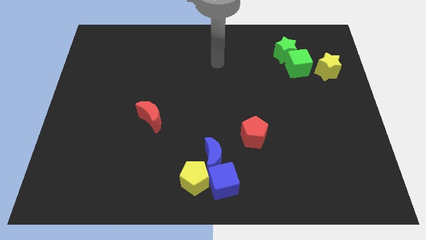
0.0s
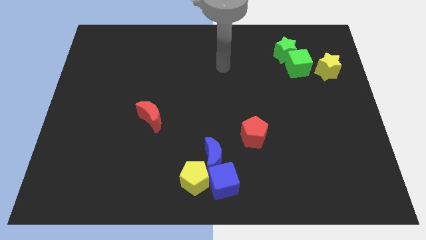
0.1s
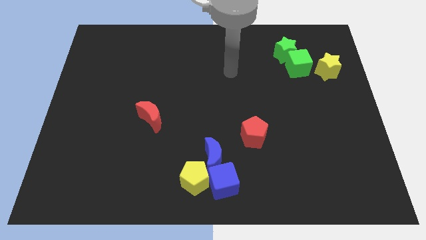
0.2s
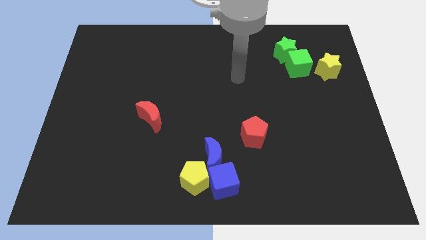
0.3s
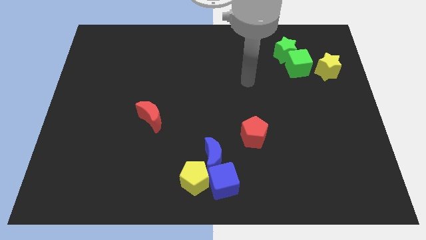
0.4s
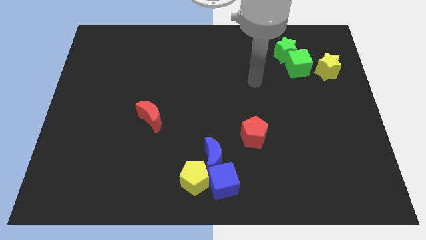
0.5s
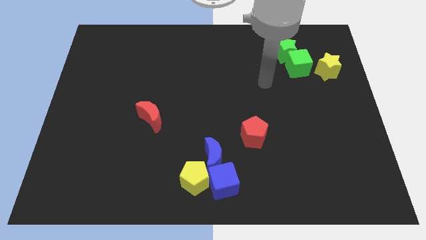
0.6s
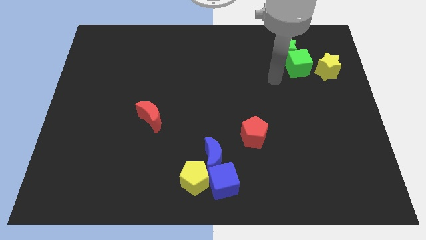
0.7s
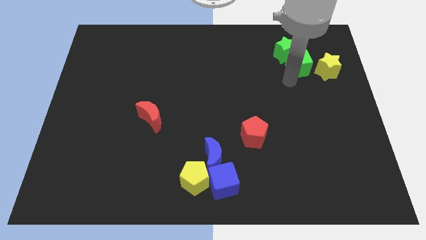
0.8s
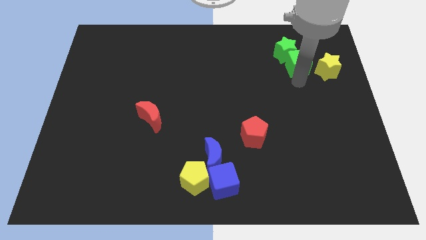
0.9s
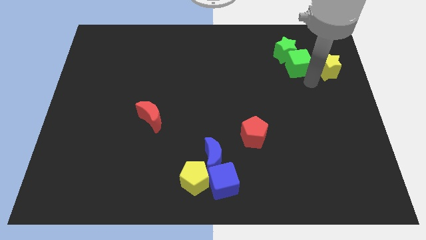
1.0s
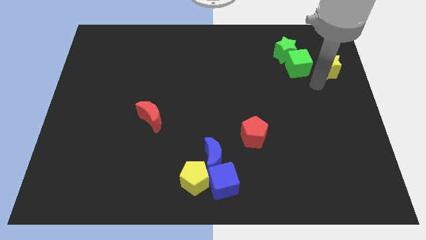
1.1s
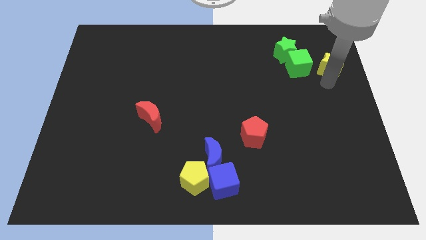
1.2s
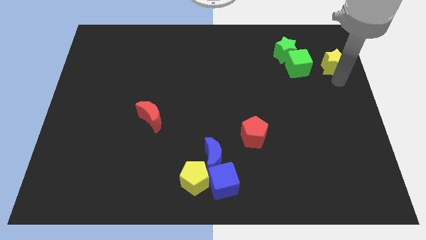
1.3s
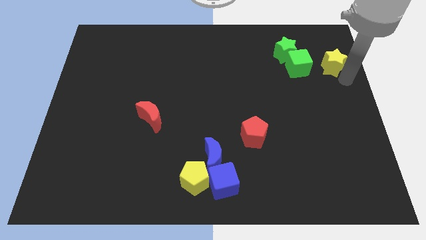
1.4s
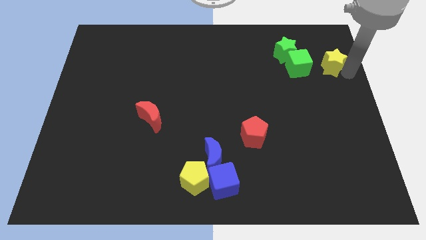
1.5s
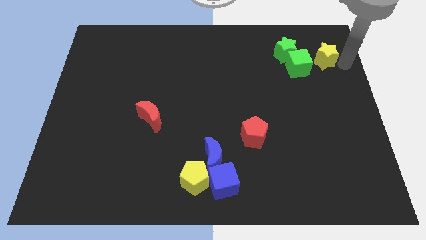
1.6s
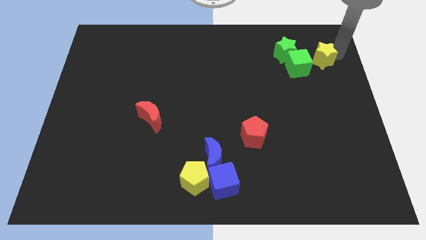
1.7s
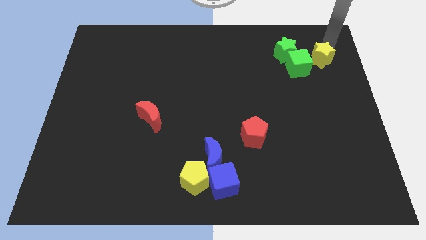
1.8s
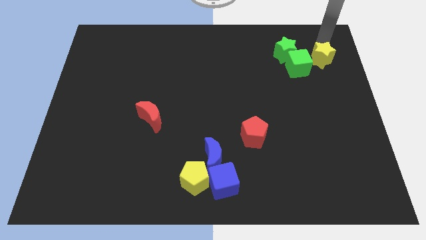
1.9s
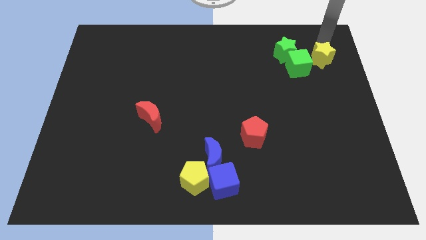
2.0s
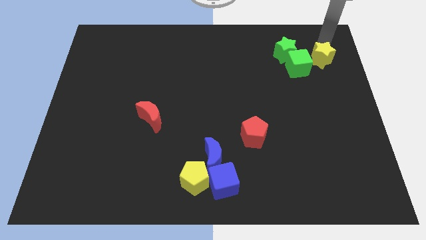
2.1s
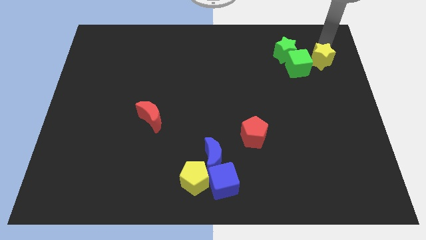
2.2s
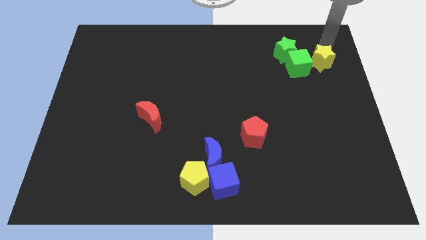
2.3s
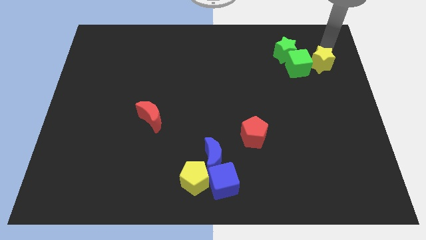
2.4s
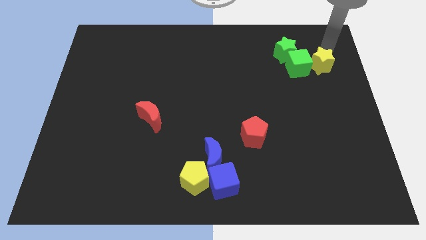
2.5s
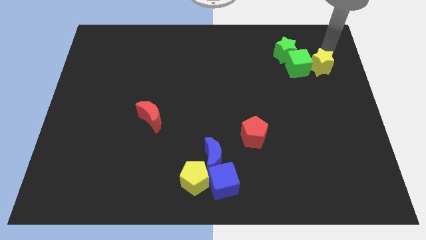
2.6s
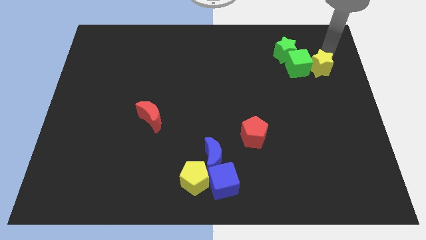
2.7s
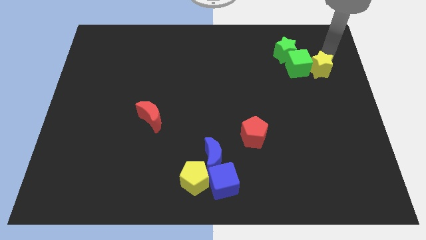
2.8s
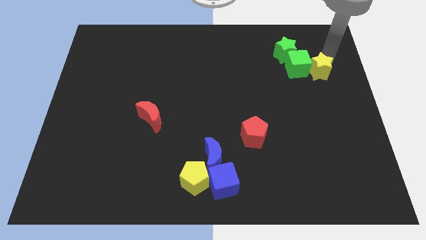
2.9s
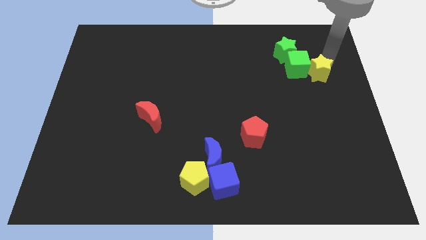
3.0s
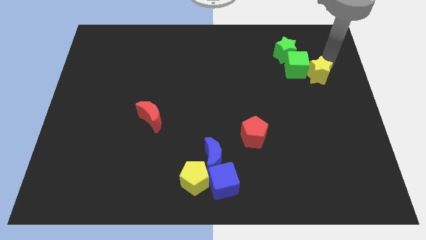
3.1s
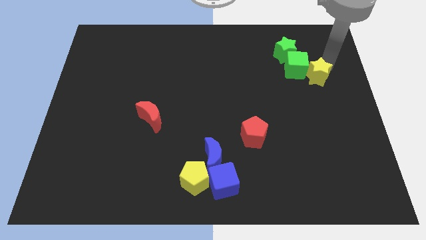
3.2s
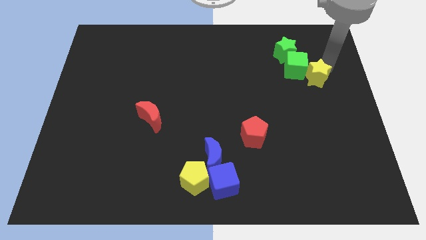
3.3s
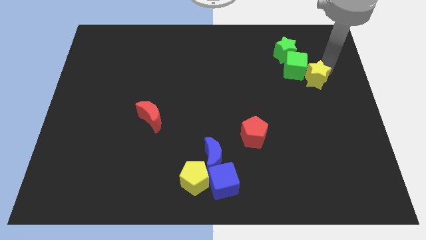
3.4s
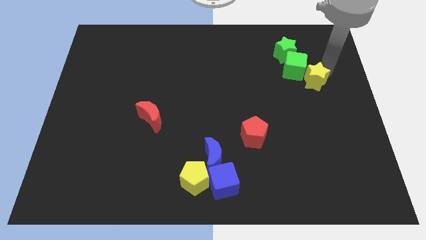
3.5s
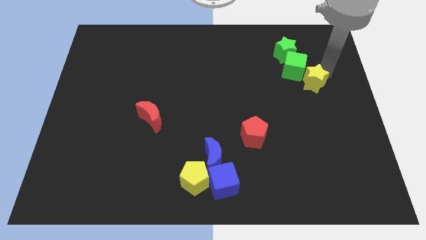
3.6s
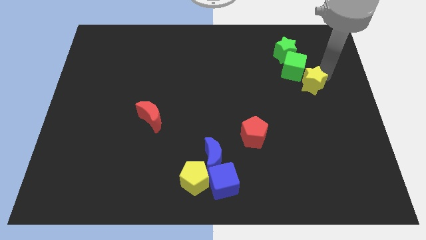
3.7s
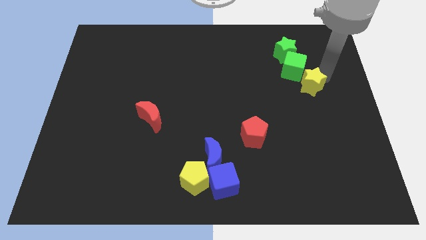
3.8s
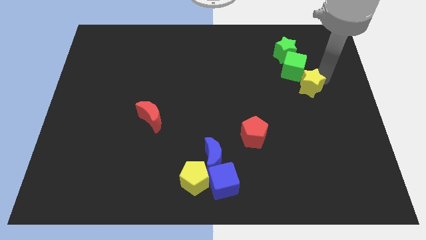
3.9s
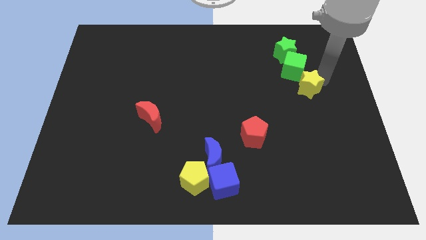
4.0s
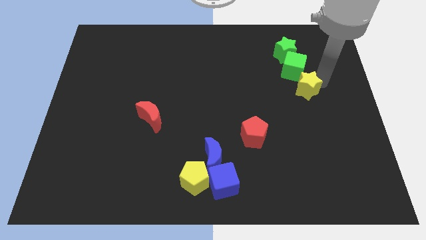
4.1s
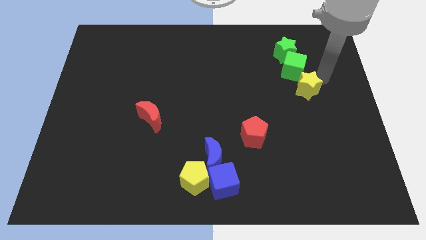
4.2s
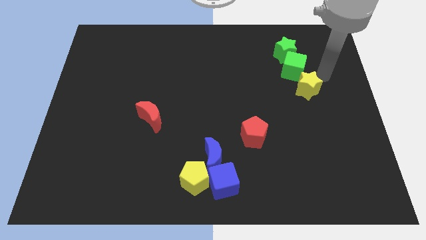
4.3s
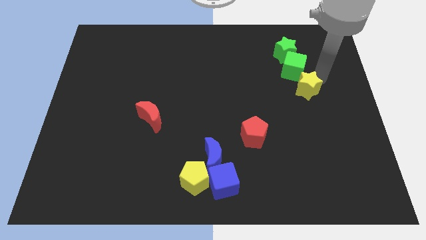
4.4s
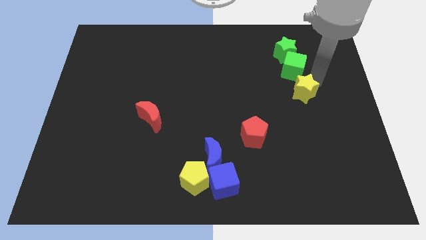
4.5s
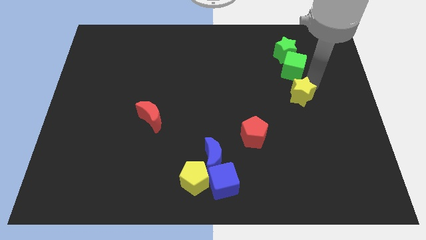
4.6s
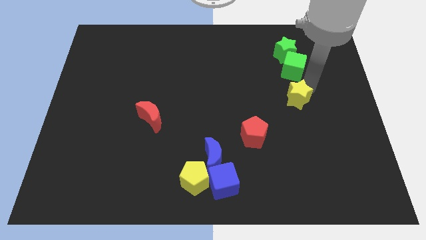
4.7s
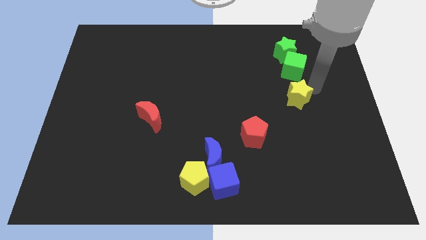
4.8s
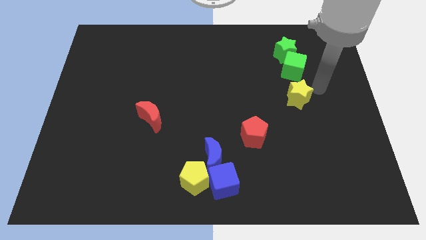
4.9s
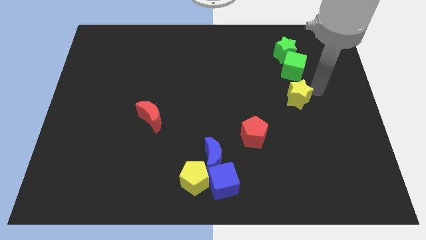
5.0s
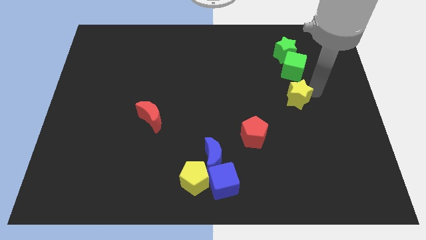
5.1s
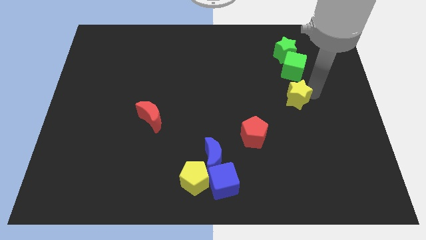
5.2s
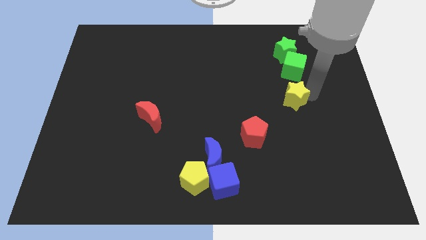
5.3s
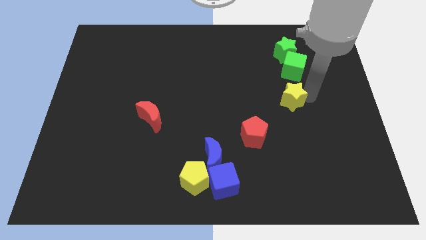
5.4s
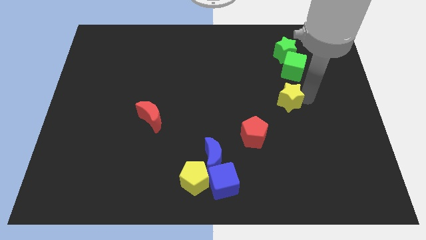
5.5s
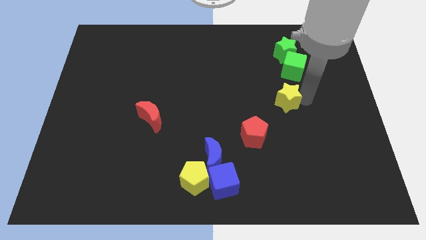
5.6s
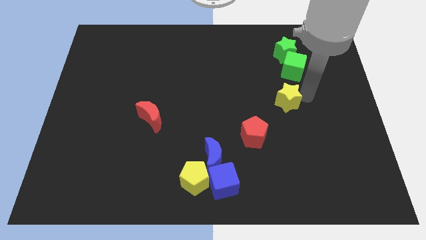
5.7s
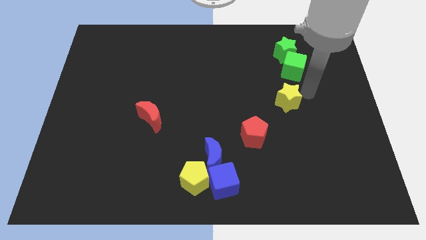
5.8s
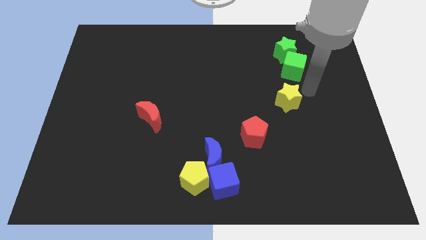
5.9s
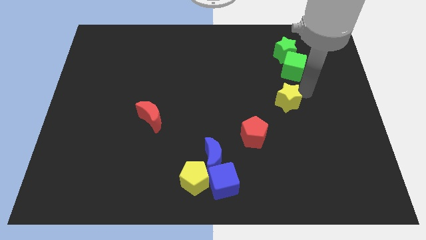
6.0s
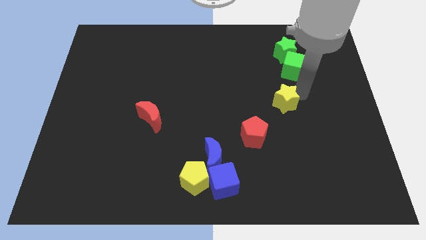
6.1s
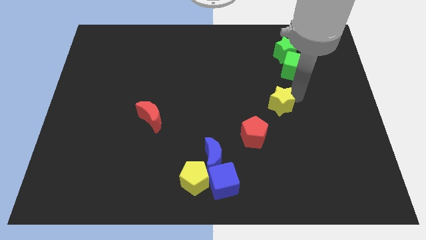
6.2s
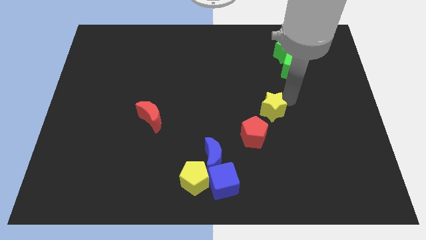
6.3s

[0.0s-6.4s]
move the yellow star downwards and to the left

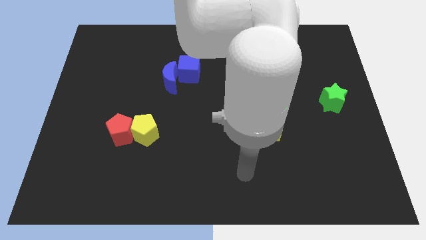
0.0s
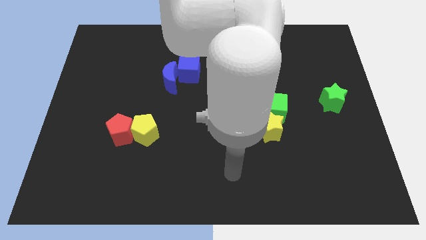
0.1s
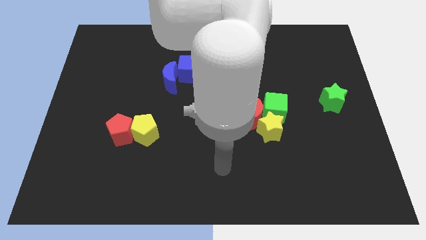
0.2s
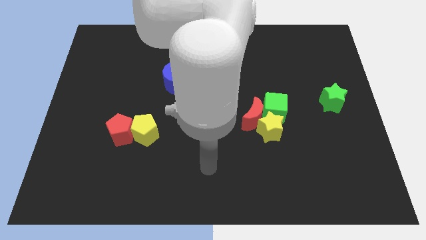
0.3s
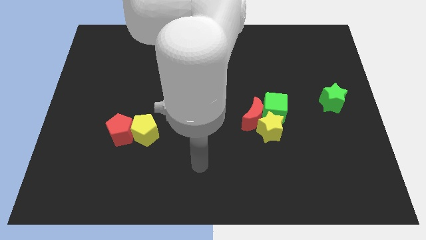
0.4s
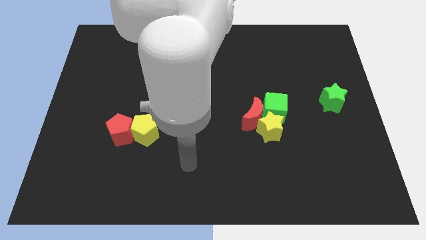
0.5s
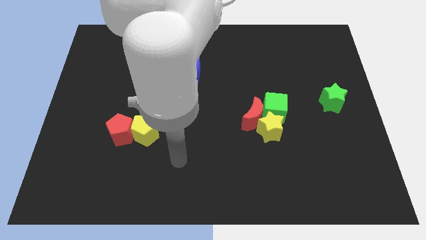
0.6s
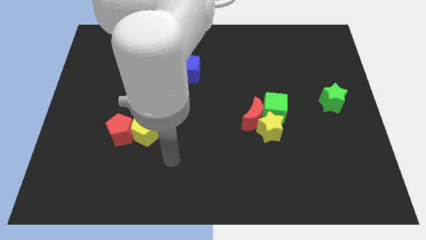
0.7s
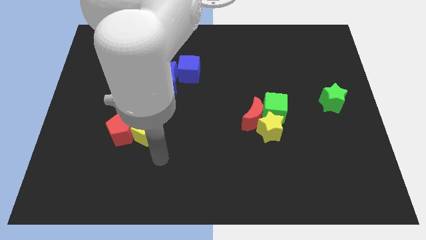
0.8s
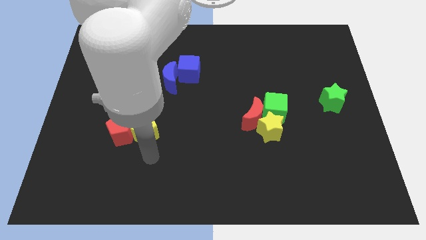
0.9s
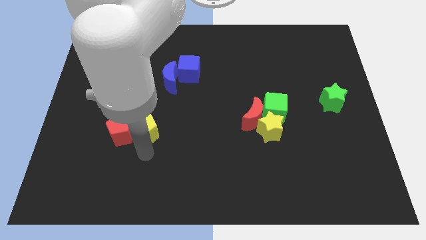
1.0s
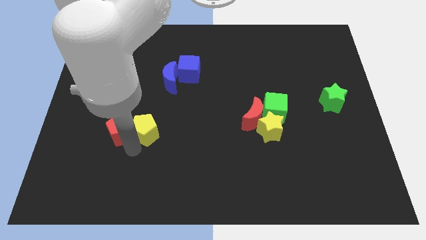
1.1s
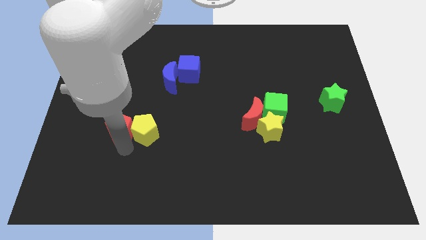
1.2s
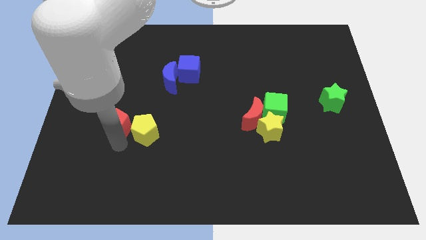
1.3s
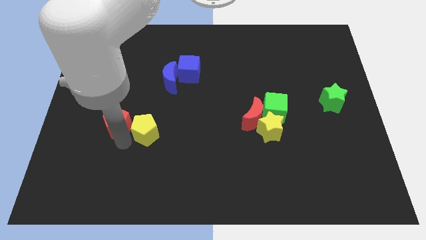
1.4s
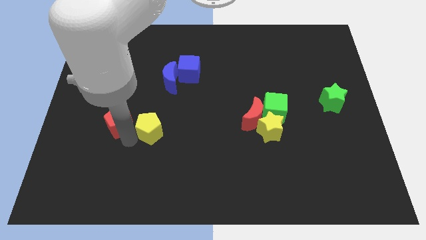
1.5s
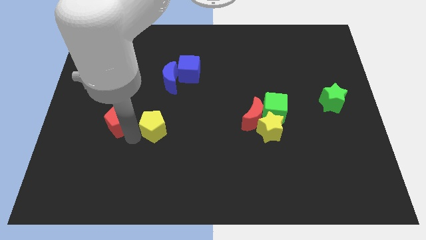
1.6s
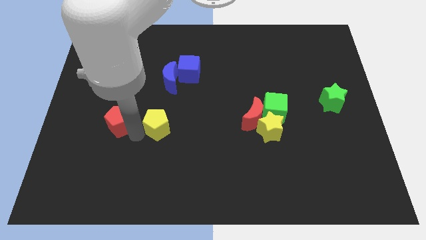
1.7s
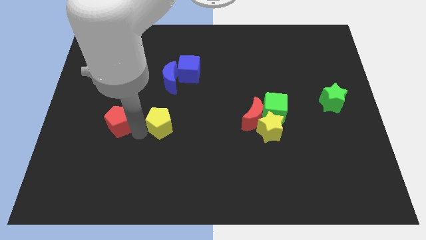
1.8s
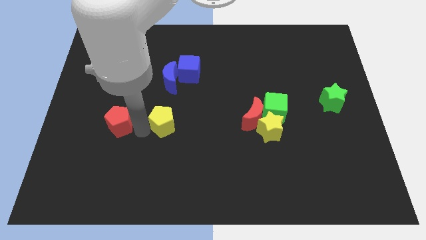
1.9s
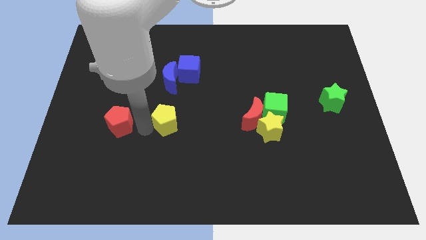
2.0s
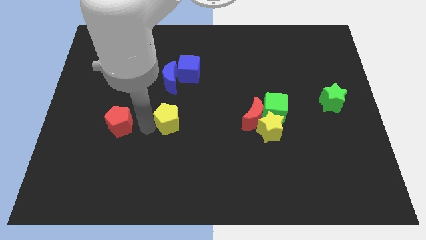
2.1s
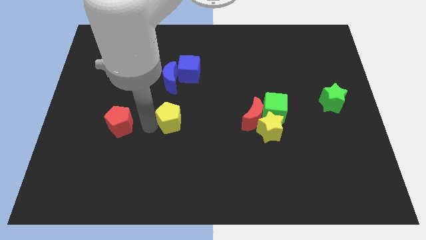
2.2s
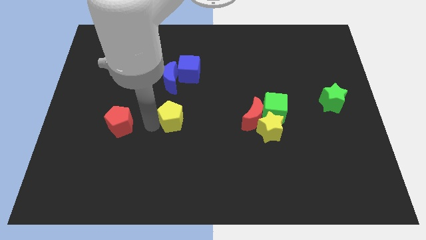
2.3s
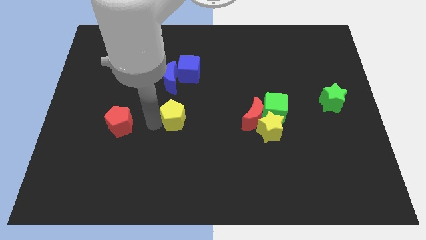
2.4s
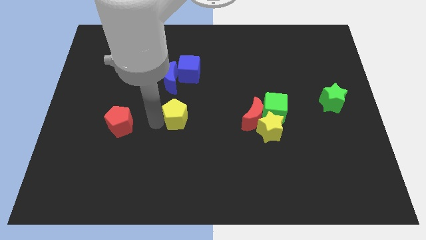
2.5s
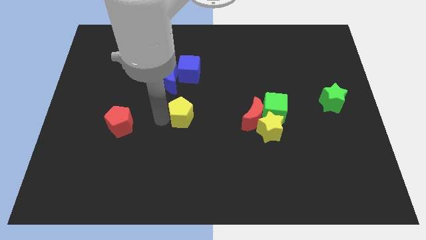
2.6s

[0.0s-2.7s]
push the yellow pentagon right a bit
